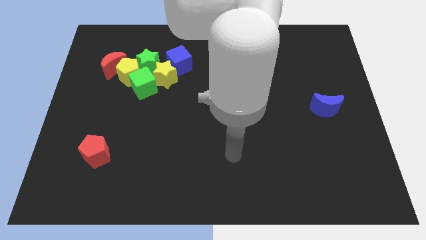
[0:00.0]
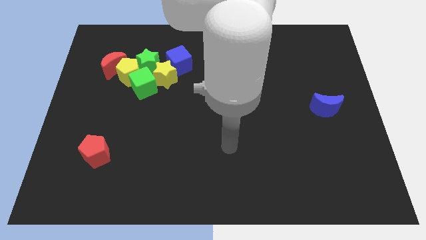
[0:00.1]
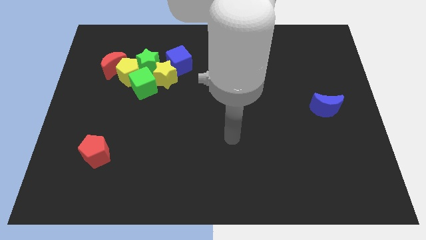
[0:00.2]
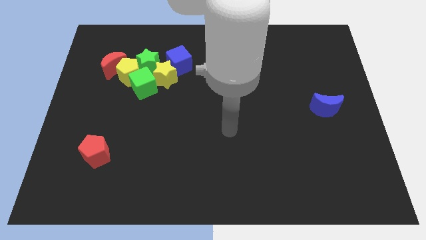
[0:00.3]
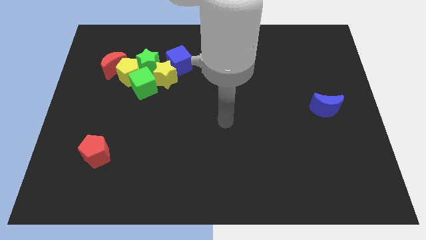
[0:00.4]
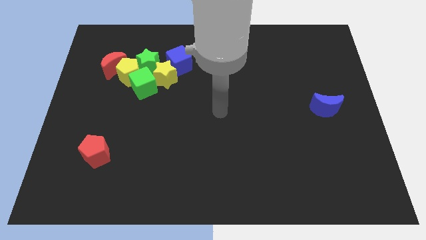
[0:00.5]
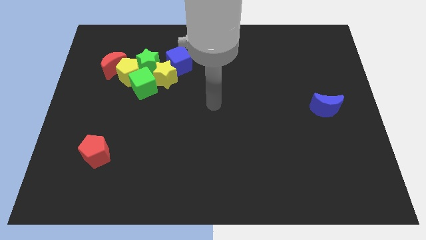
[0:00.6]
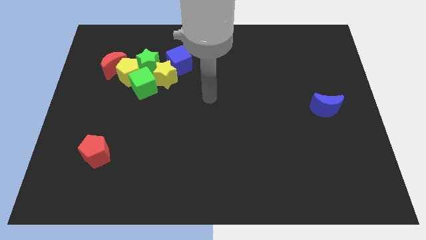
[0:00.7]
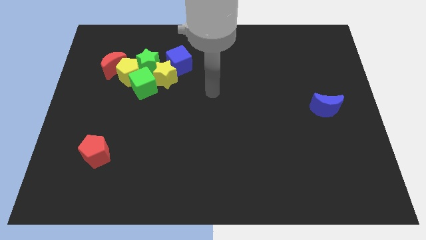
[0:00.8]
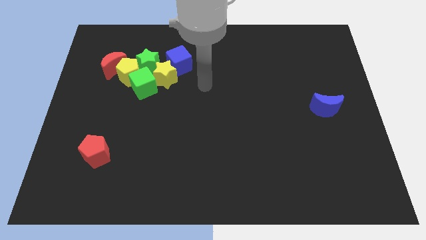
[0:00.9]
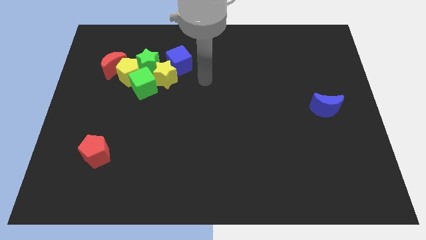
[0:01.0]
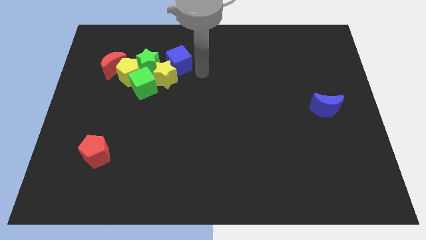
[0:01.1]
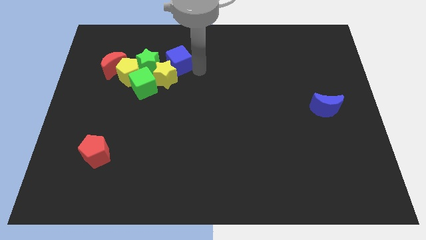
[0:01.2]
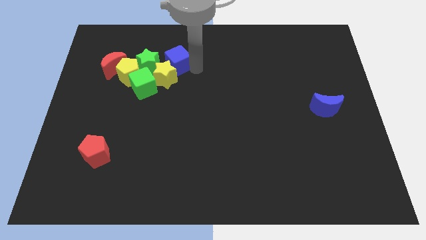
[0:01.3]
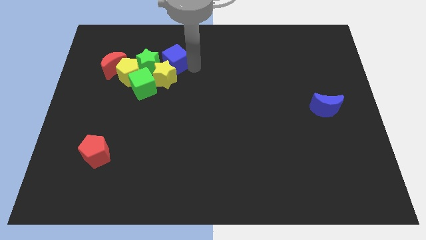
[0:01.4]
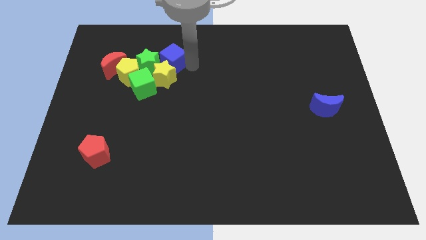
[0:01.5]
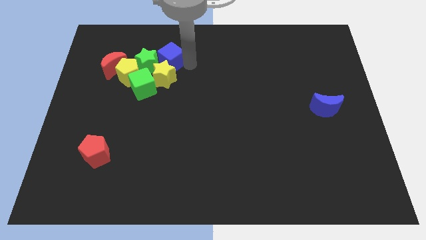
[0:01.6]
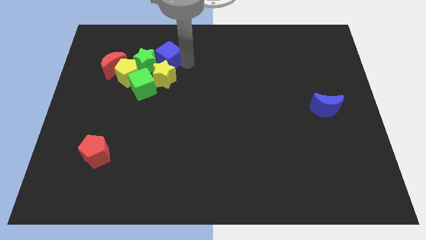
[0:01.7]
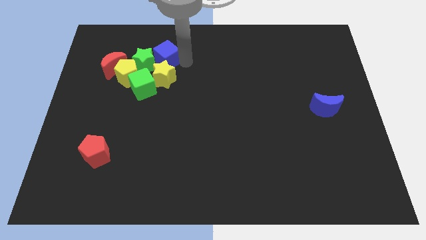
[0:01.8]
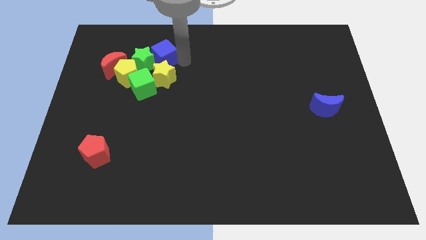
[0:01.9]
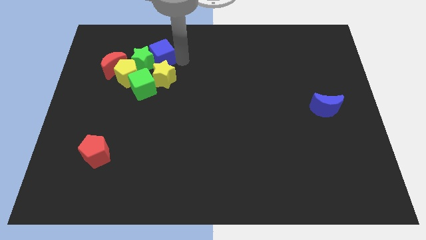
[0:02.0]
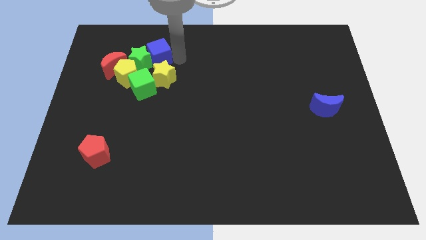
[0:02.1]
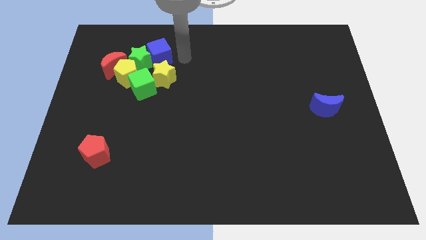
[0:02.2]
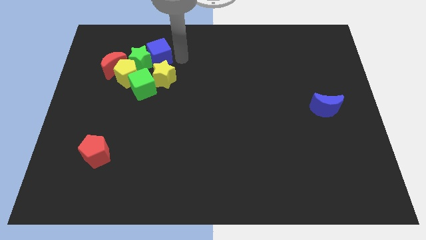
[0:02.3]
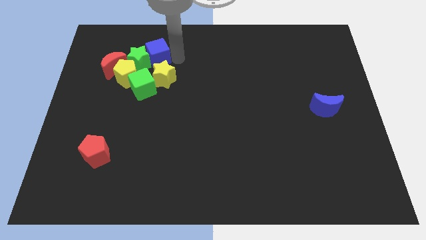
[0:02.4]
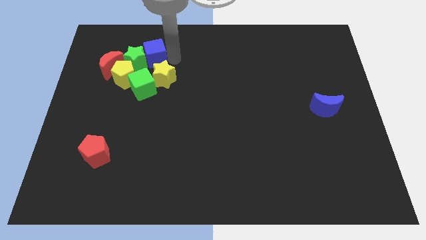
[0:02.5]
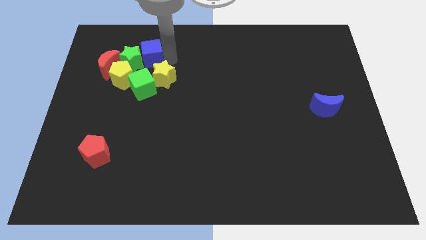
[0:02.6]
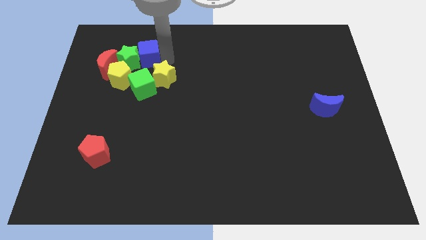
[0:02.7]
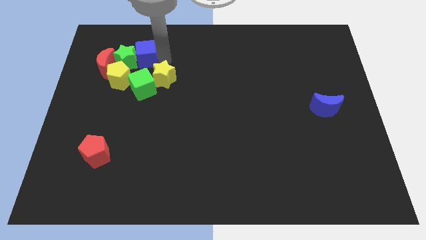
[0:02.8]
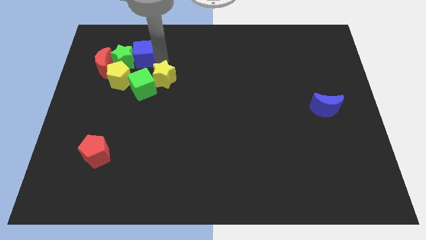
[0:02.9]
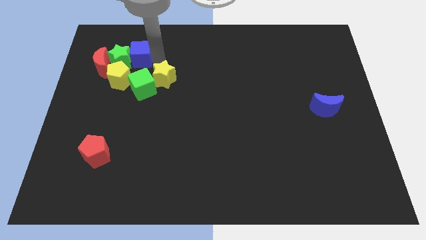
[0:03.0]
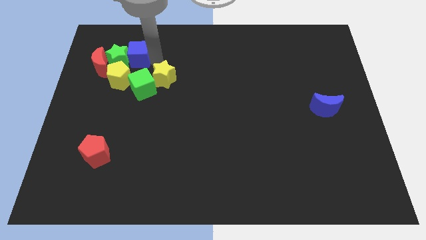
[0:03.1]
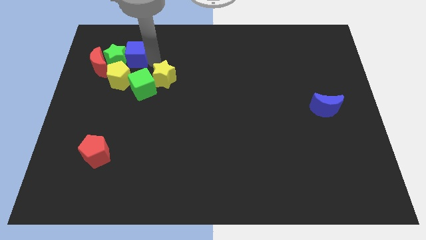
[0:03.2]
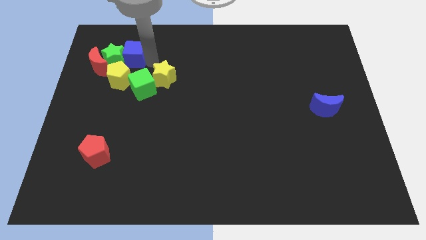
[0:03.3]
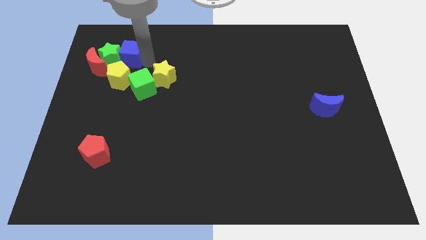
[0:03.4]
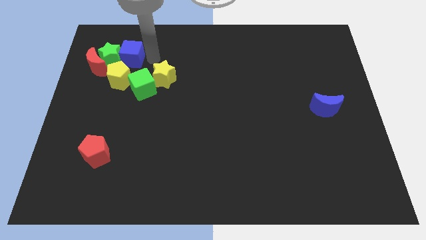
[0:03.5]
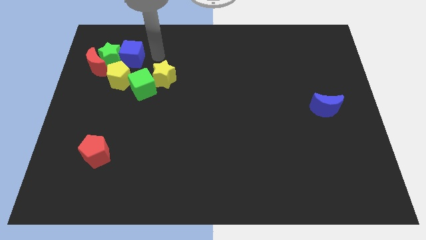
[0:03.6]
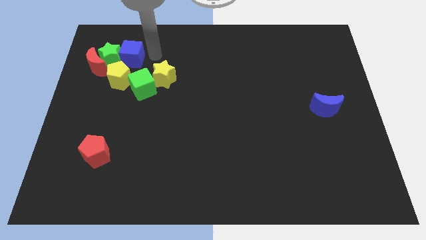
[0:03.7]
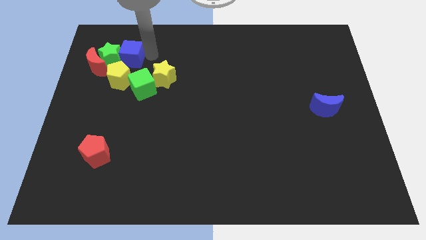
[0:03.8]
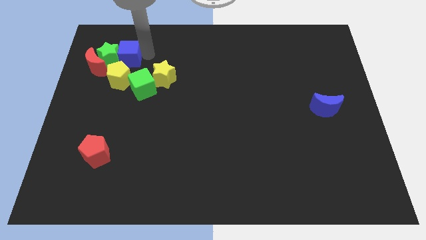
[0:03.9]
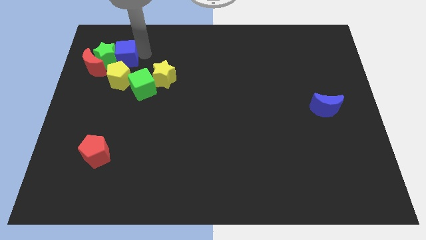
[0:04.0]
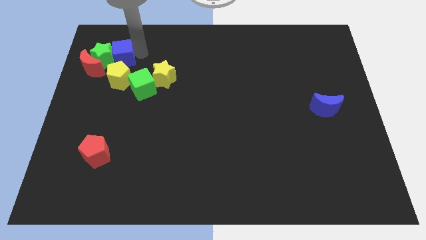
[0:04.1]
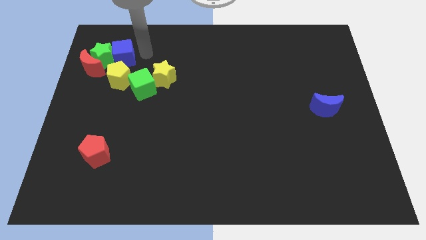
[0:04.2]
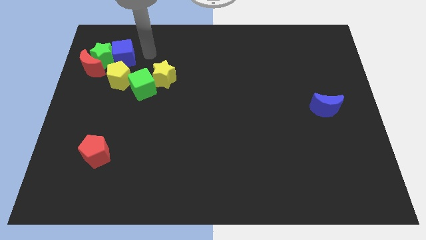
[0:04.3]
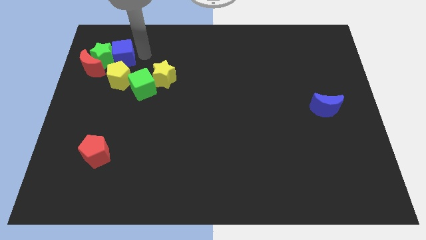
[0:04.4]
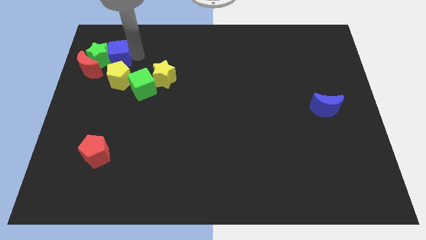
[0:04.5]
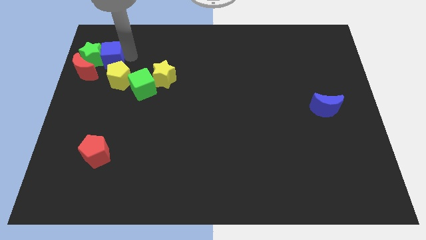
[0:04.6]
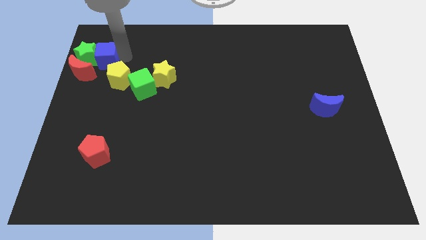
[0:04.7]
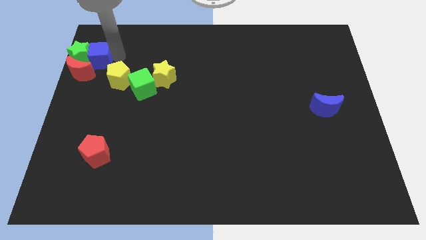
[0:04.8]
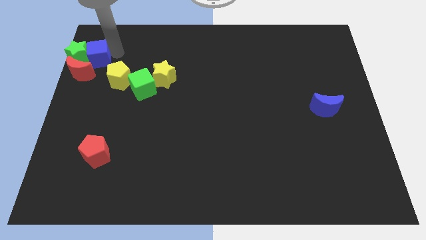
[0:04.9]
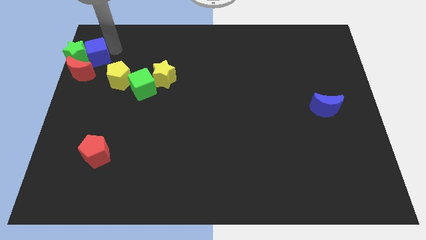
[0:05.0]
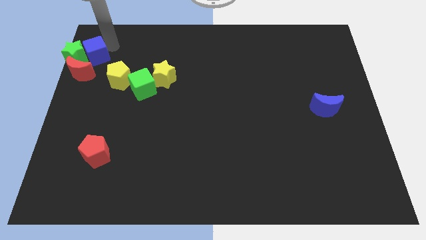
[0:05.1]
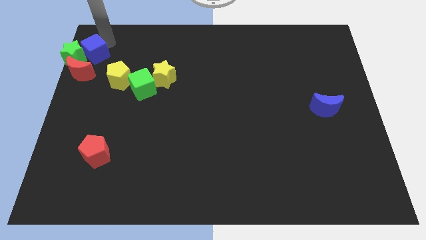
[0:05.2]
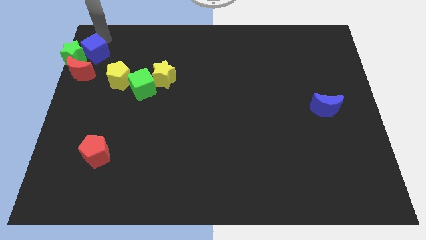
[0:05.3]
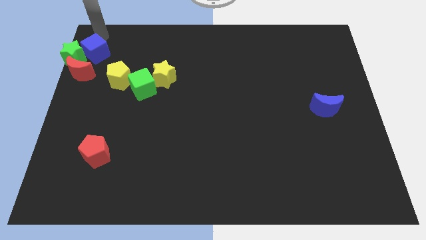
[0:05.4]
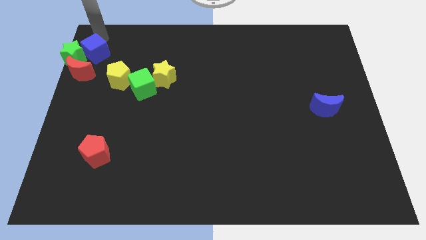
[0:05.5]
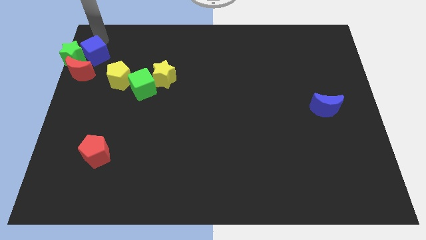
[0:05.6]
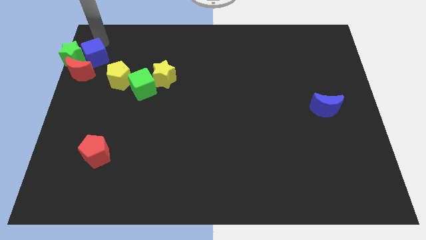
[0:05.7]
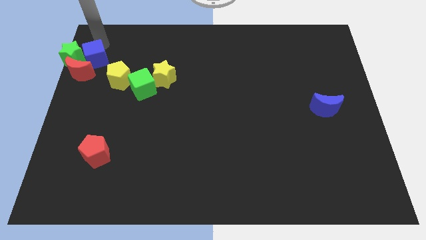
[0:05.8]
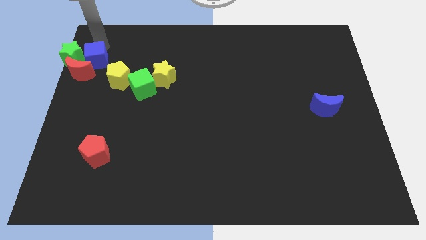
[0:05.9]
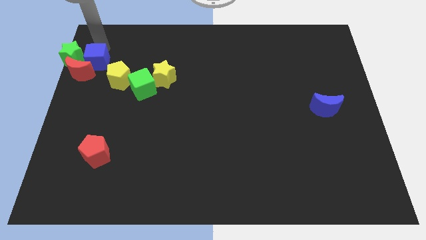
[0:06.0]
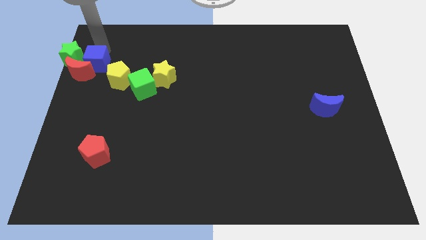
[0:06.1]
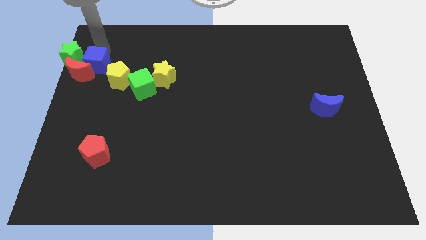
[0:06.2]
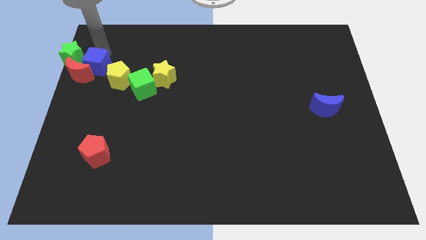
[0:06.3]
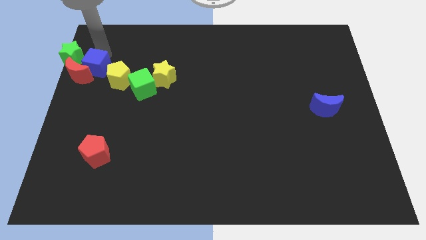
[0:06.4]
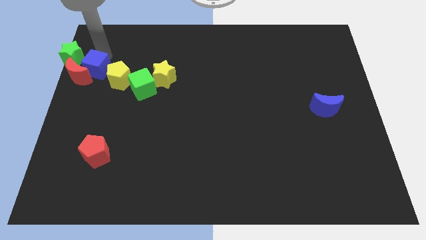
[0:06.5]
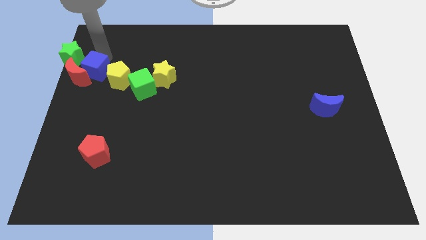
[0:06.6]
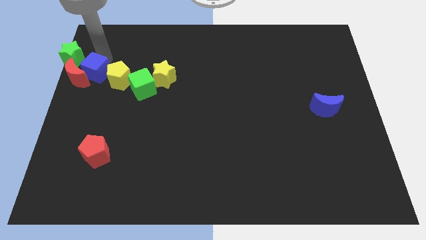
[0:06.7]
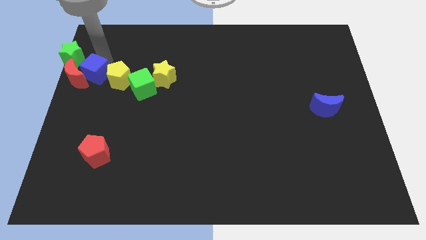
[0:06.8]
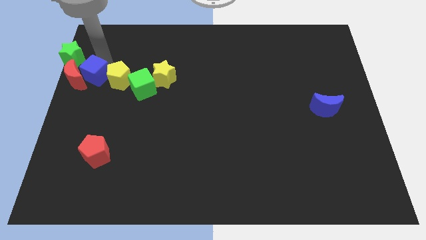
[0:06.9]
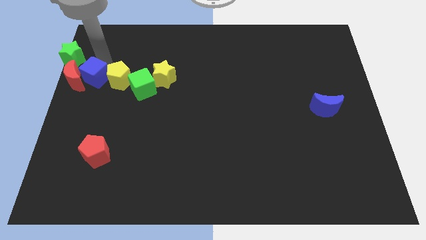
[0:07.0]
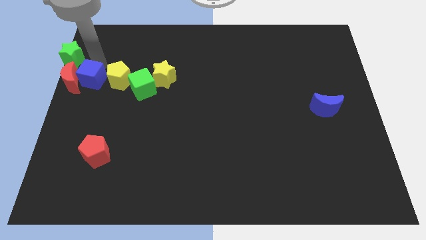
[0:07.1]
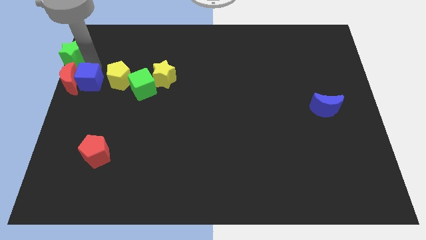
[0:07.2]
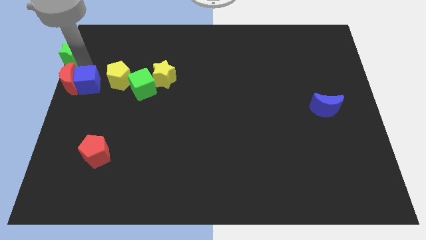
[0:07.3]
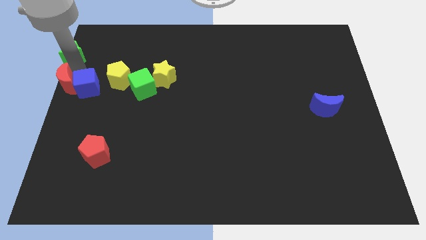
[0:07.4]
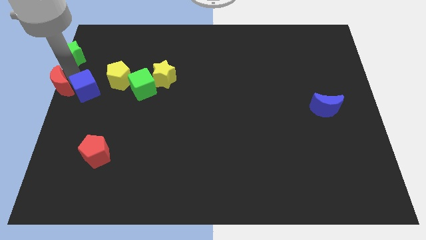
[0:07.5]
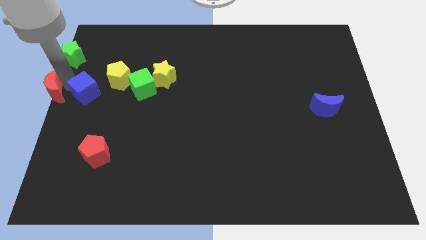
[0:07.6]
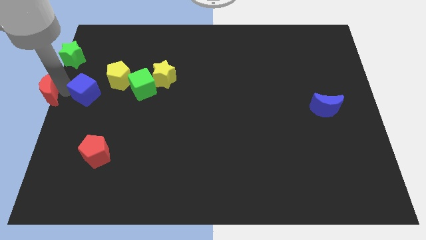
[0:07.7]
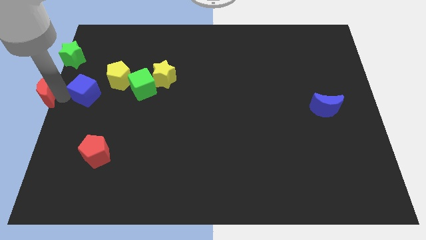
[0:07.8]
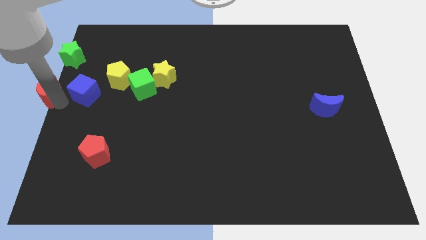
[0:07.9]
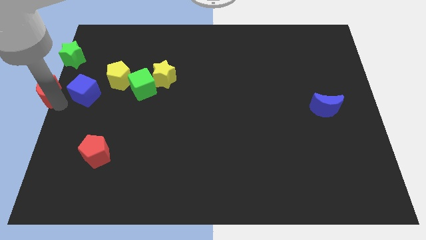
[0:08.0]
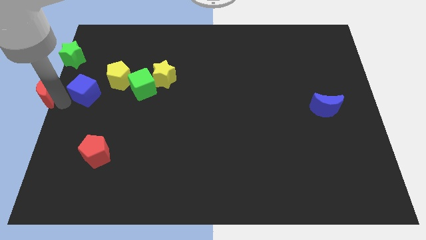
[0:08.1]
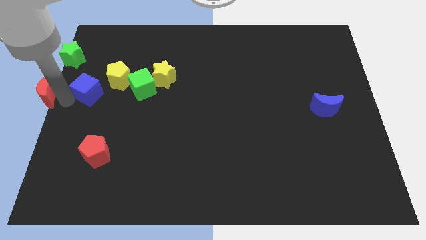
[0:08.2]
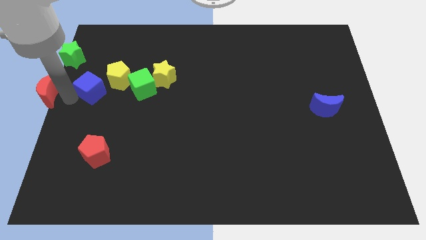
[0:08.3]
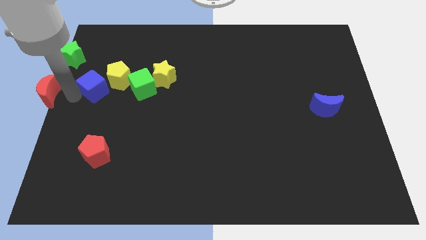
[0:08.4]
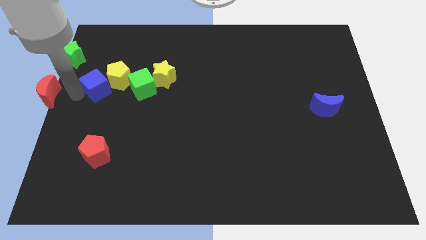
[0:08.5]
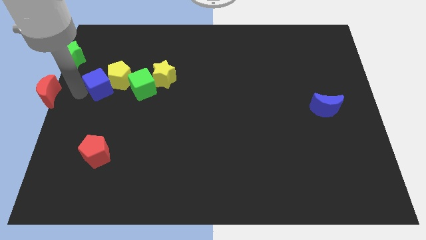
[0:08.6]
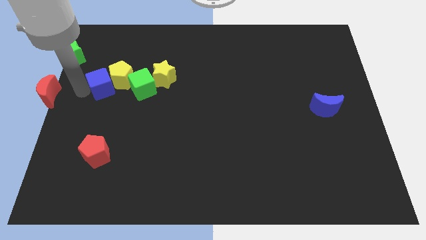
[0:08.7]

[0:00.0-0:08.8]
put the blue cube left of the yellow star
